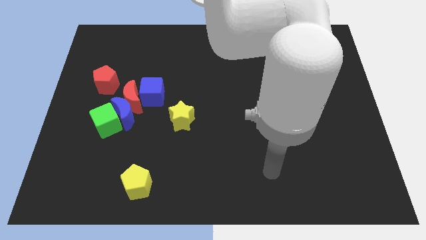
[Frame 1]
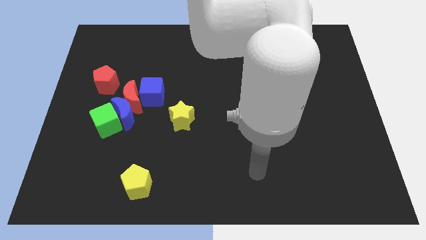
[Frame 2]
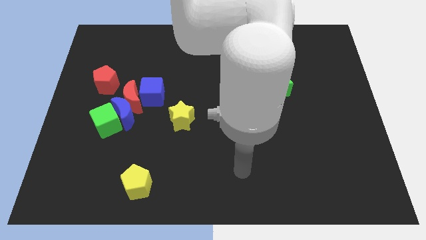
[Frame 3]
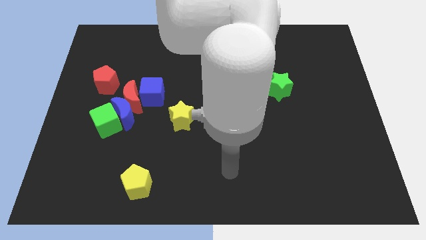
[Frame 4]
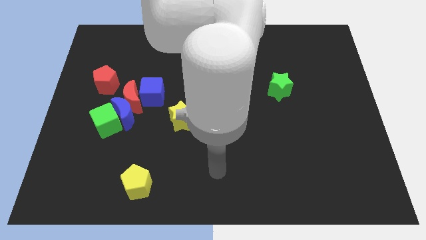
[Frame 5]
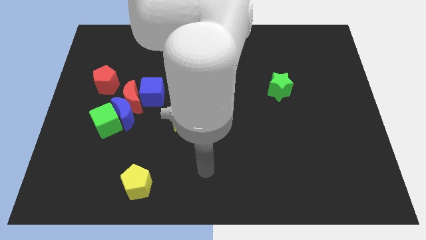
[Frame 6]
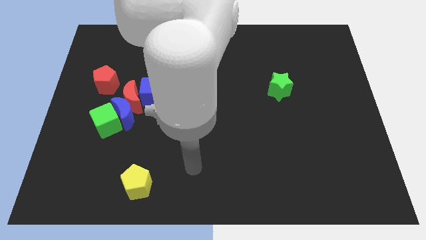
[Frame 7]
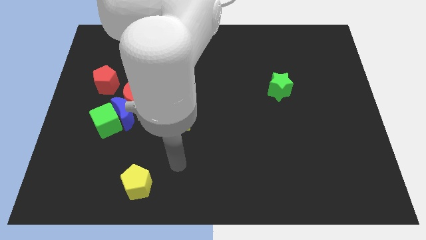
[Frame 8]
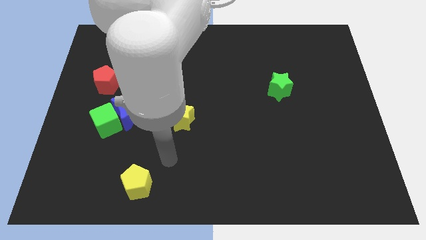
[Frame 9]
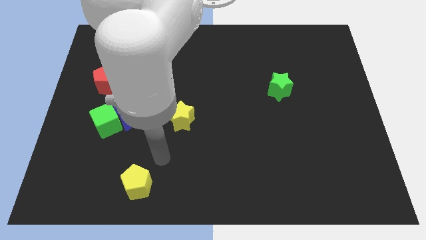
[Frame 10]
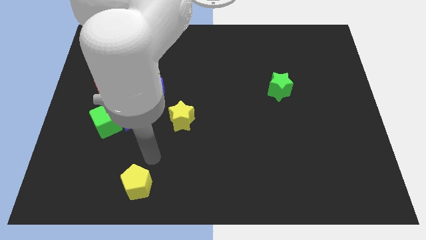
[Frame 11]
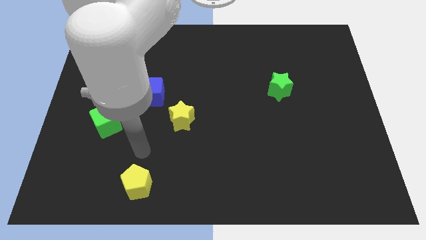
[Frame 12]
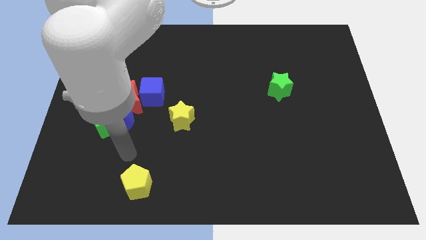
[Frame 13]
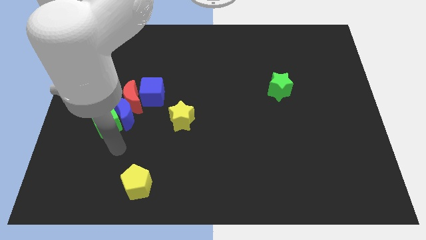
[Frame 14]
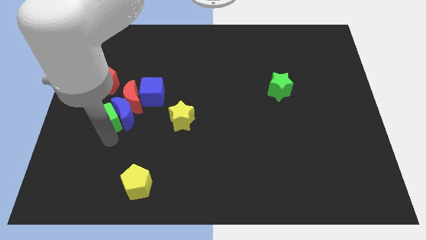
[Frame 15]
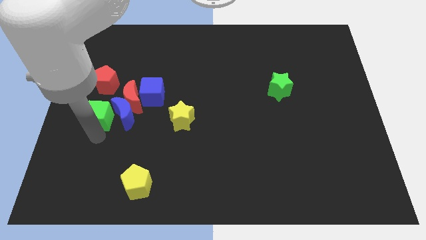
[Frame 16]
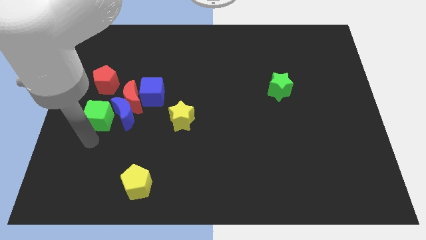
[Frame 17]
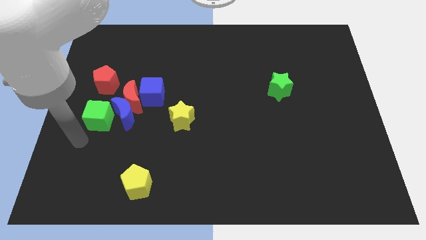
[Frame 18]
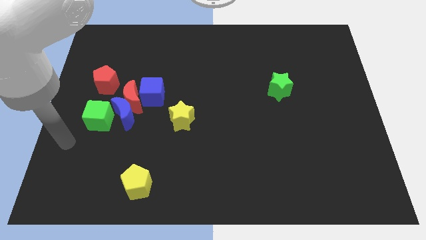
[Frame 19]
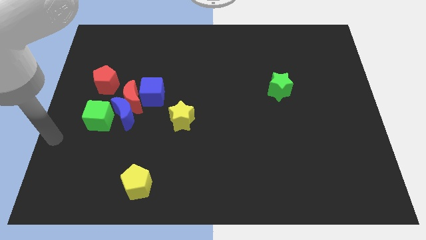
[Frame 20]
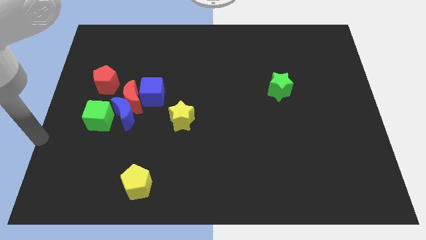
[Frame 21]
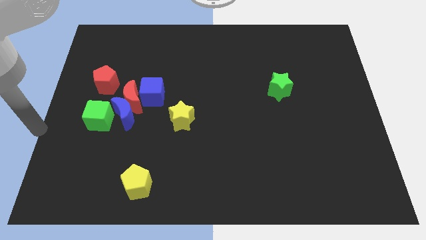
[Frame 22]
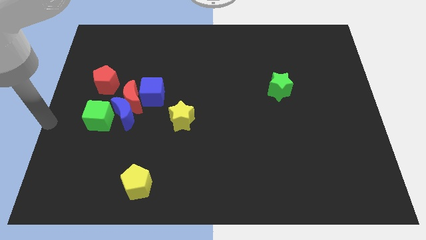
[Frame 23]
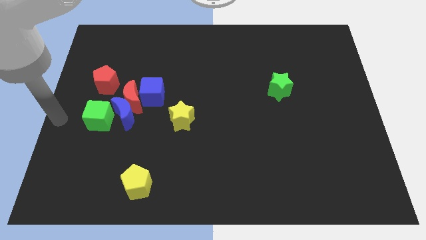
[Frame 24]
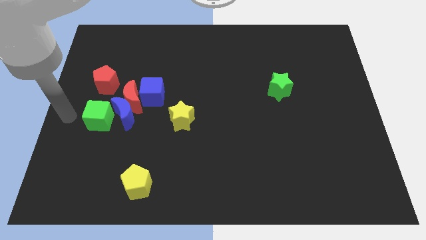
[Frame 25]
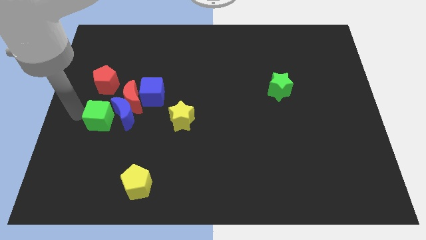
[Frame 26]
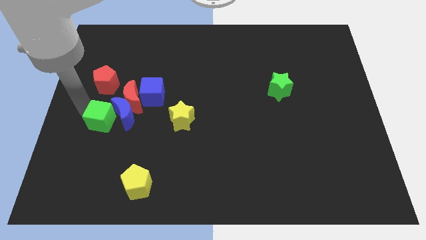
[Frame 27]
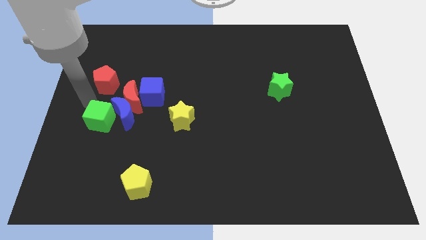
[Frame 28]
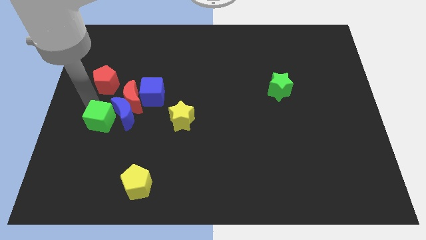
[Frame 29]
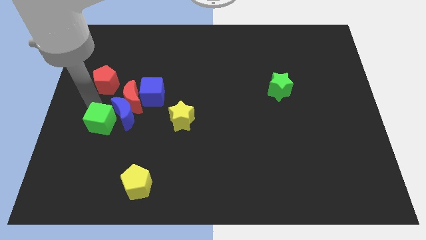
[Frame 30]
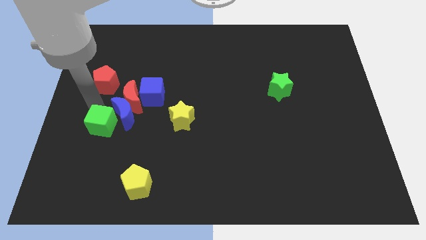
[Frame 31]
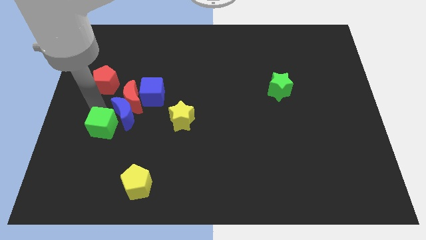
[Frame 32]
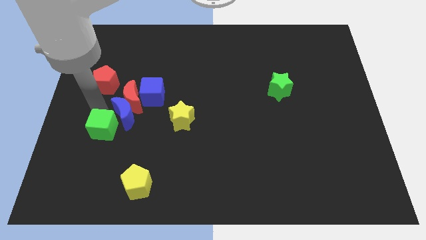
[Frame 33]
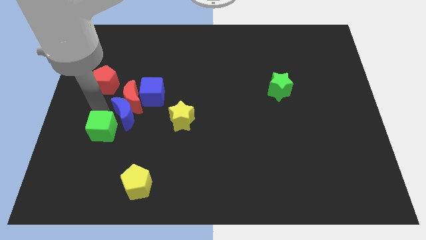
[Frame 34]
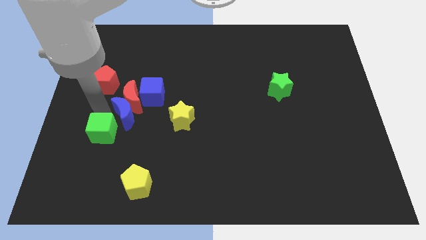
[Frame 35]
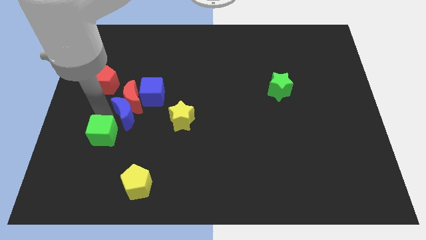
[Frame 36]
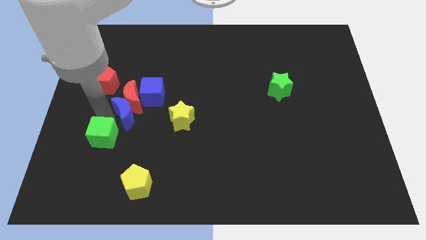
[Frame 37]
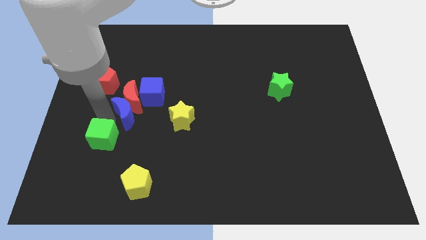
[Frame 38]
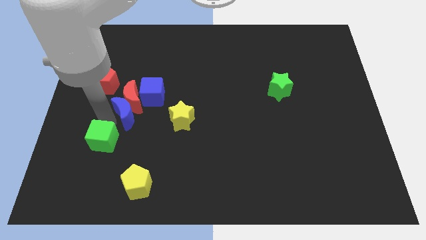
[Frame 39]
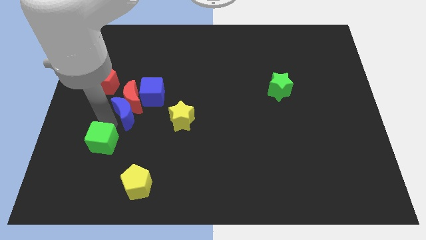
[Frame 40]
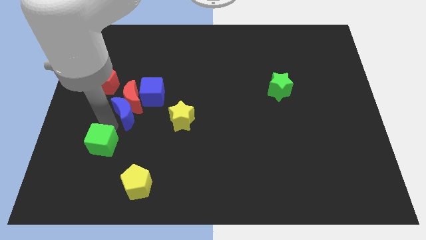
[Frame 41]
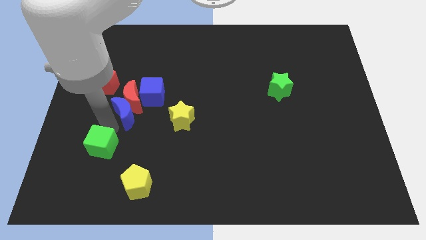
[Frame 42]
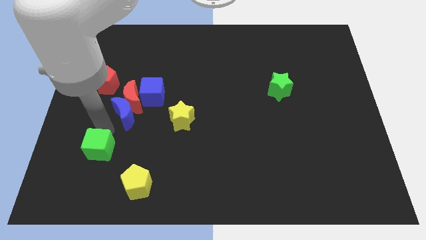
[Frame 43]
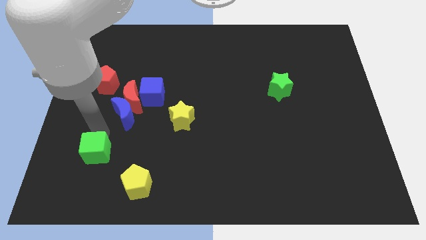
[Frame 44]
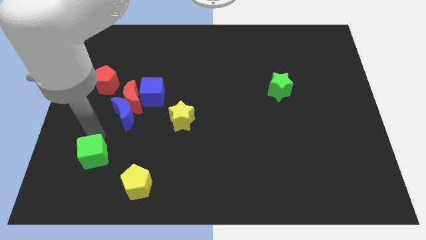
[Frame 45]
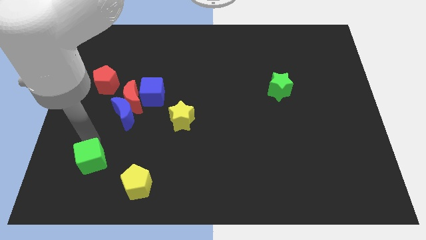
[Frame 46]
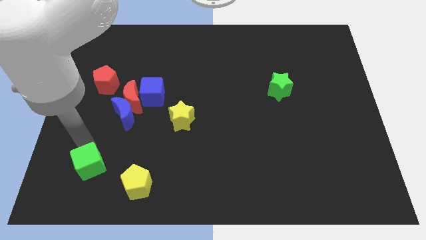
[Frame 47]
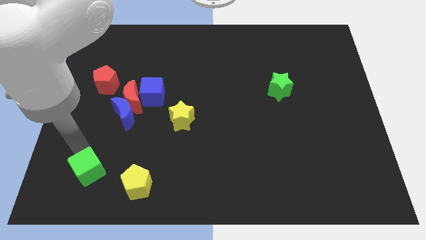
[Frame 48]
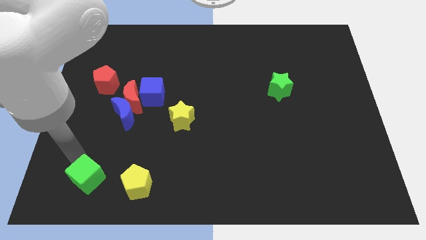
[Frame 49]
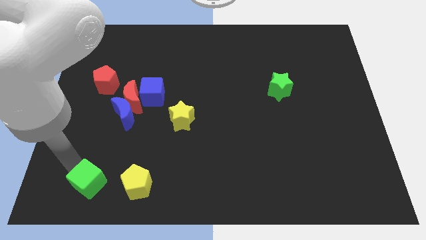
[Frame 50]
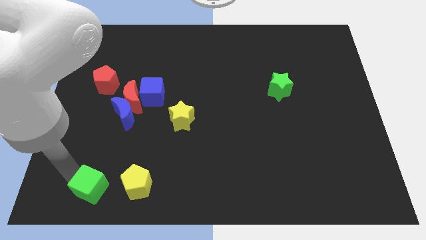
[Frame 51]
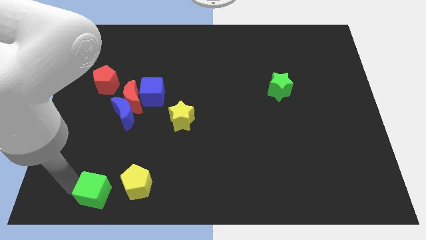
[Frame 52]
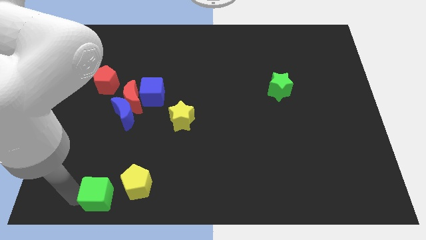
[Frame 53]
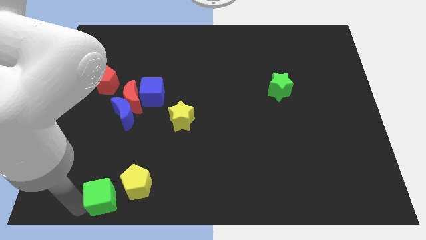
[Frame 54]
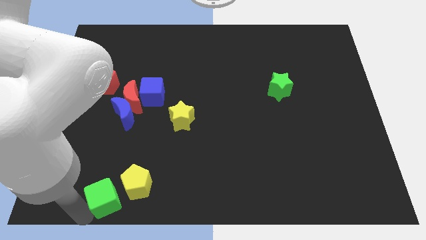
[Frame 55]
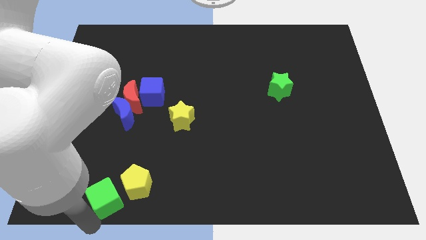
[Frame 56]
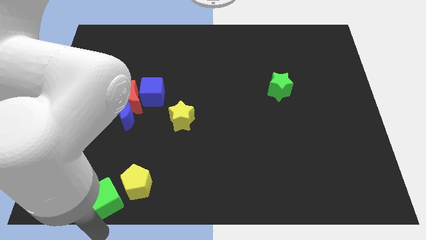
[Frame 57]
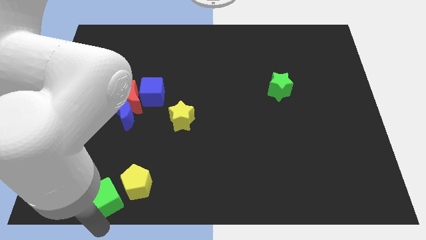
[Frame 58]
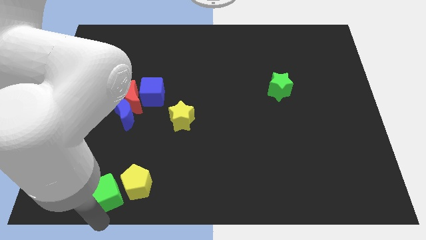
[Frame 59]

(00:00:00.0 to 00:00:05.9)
slide the green cube to the yellow pentagon

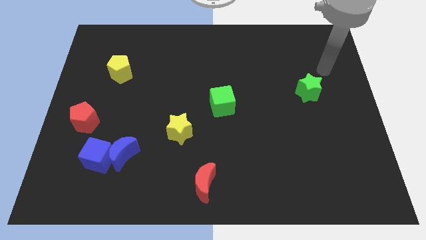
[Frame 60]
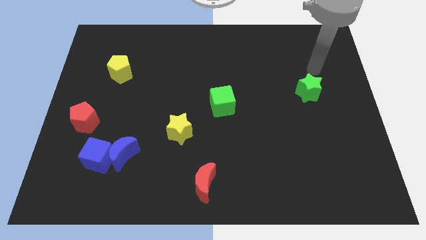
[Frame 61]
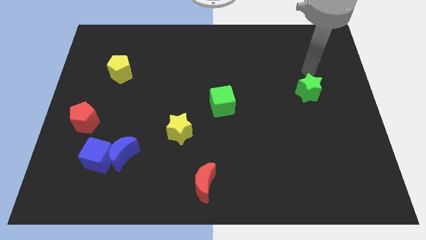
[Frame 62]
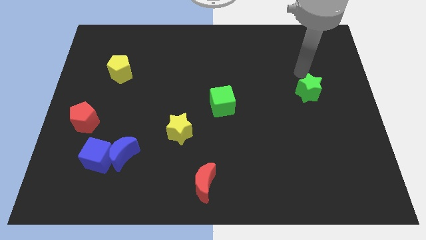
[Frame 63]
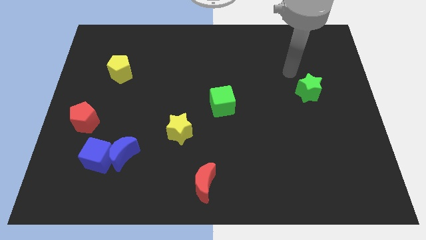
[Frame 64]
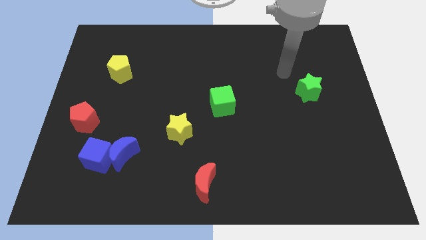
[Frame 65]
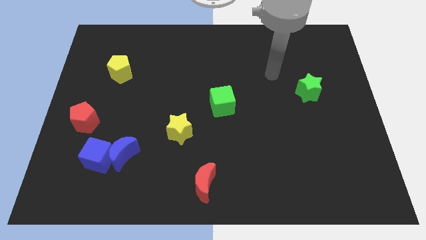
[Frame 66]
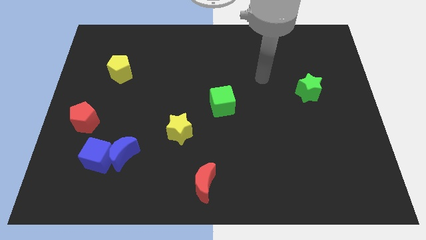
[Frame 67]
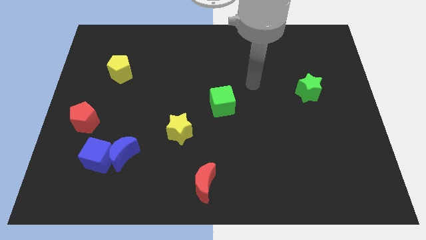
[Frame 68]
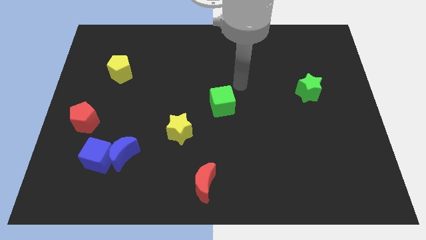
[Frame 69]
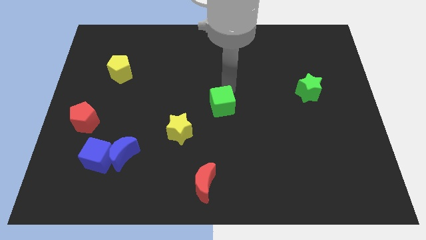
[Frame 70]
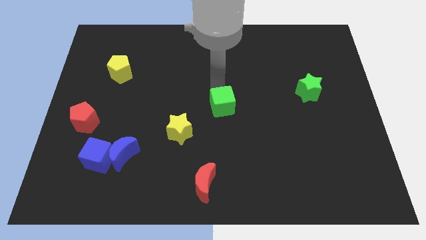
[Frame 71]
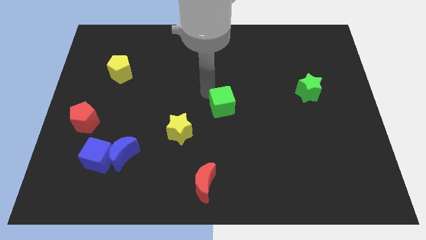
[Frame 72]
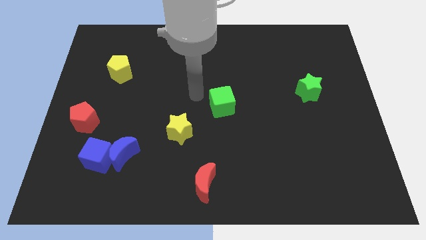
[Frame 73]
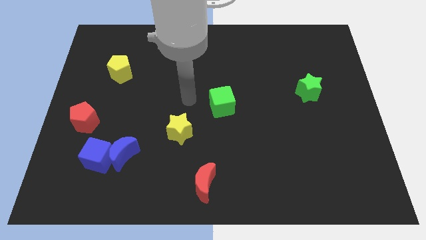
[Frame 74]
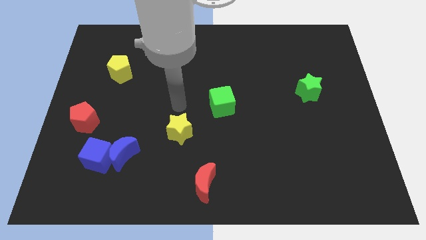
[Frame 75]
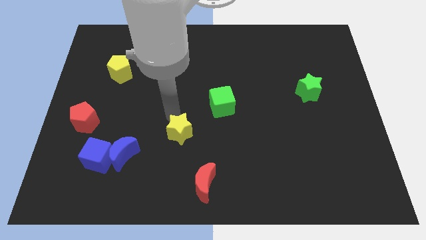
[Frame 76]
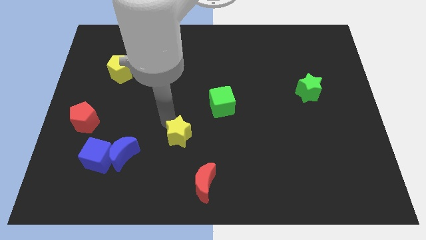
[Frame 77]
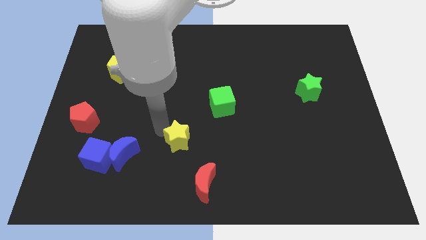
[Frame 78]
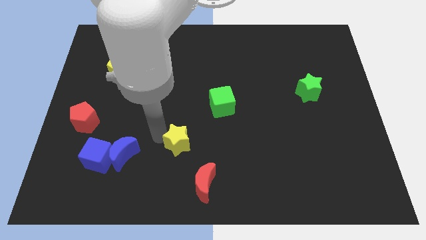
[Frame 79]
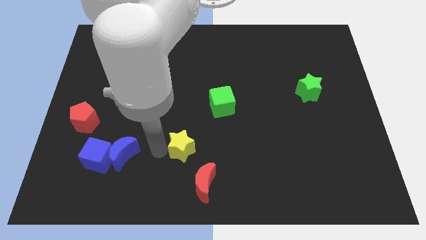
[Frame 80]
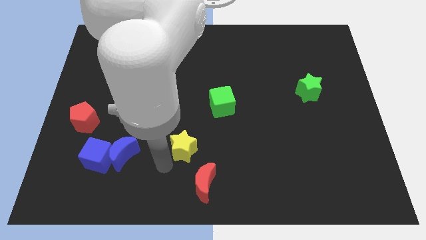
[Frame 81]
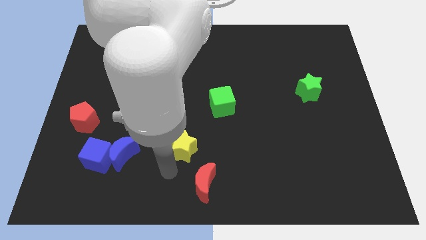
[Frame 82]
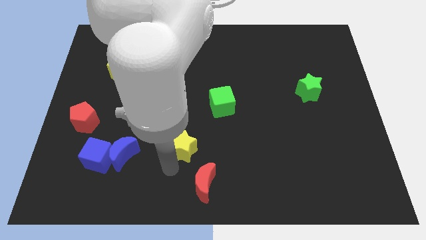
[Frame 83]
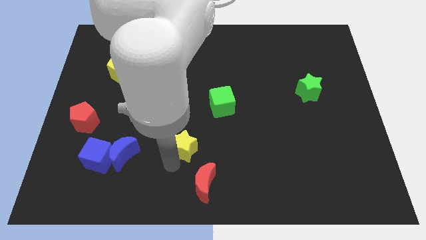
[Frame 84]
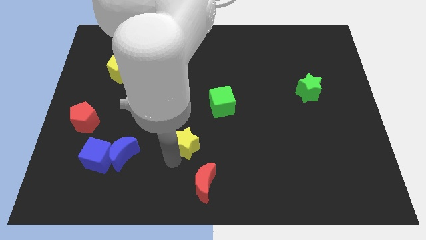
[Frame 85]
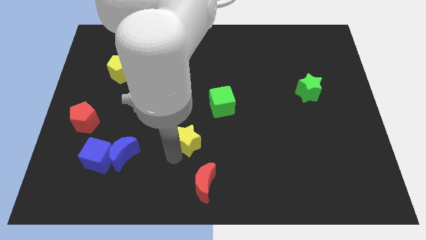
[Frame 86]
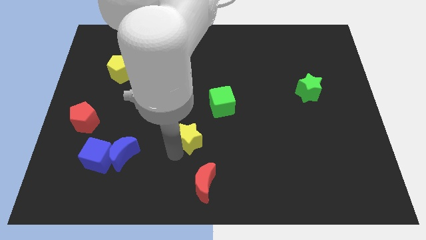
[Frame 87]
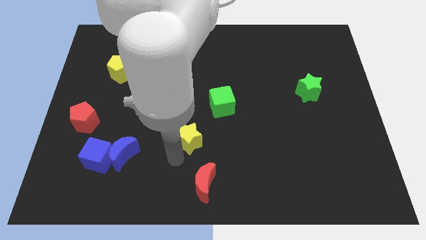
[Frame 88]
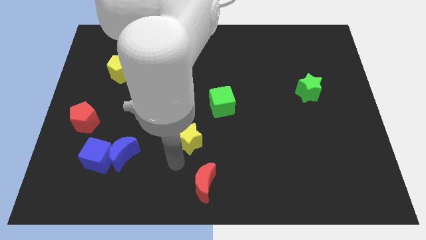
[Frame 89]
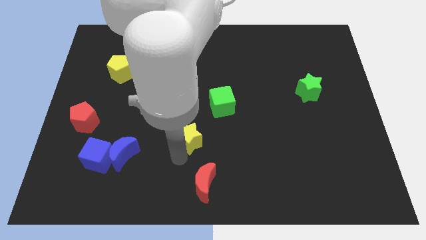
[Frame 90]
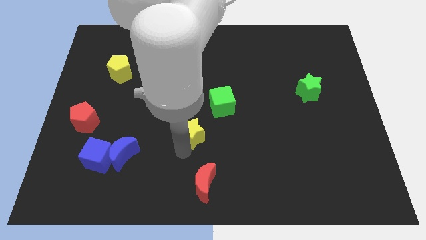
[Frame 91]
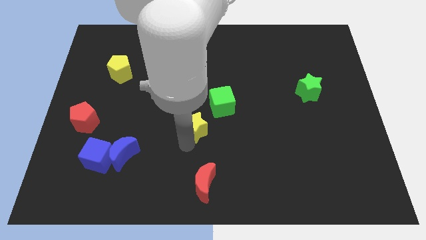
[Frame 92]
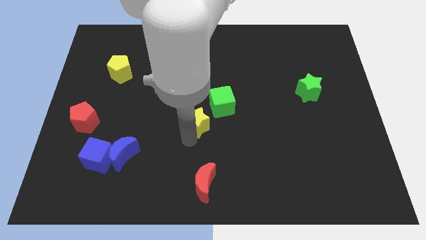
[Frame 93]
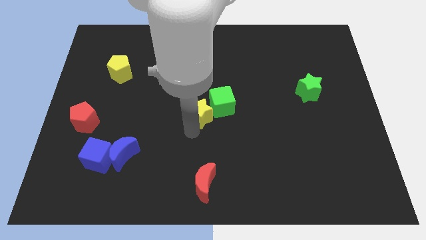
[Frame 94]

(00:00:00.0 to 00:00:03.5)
put the yellow star next to the green cube
